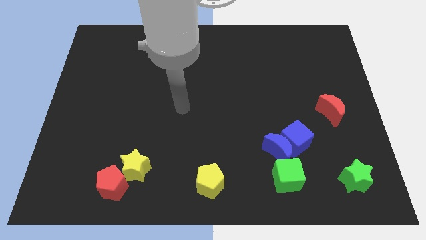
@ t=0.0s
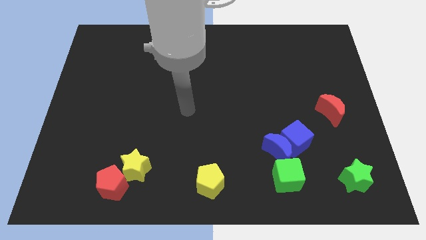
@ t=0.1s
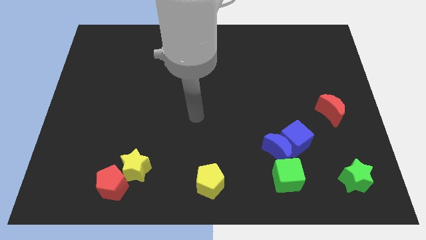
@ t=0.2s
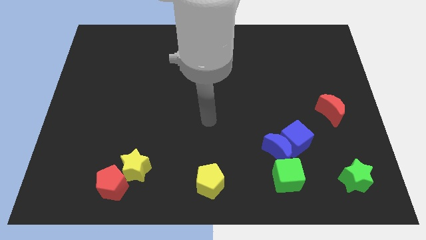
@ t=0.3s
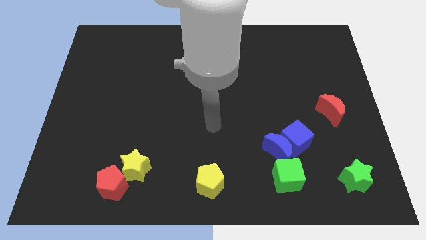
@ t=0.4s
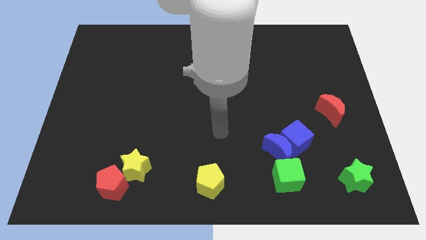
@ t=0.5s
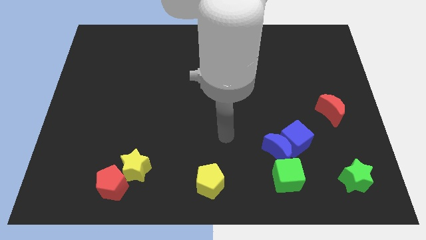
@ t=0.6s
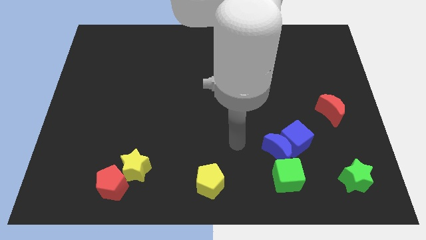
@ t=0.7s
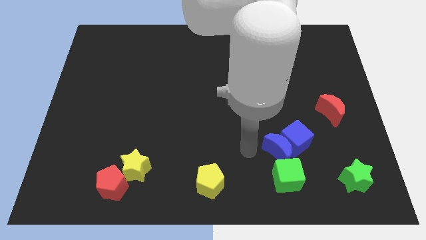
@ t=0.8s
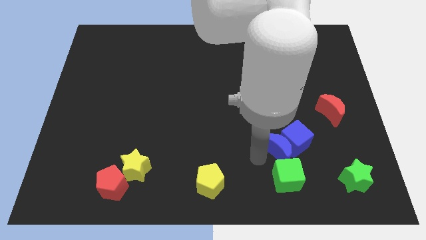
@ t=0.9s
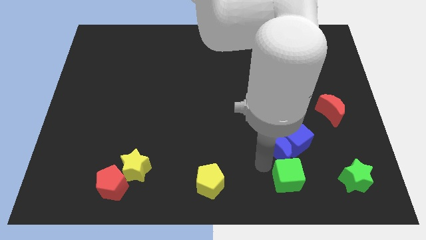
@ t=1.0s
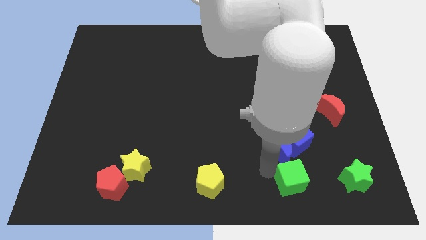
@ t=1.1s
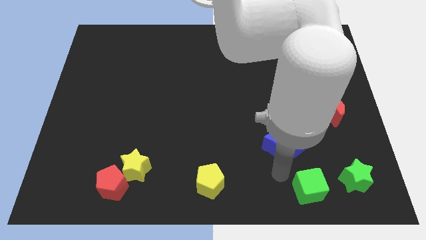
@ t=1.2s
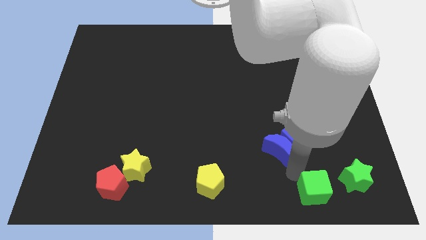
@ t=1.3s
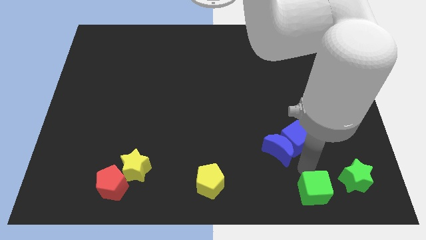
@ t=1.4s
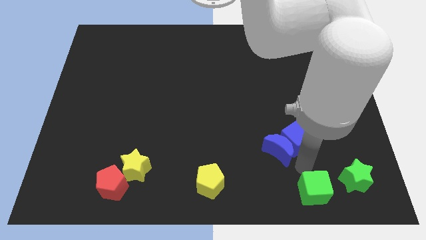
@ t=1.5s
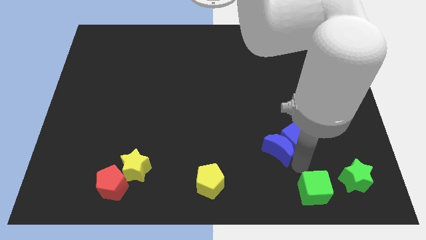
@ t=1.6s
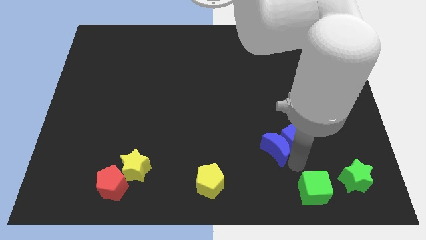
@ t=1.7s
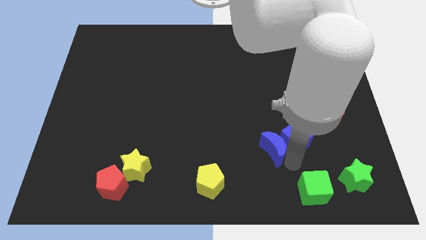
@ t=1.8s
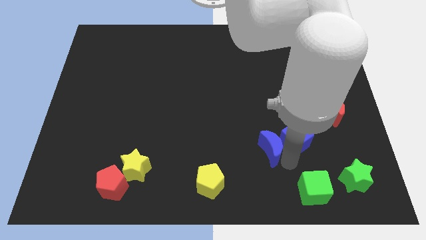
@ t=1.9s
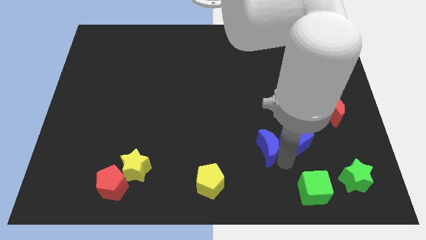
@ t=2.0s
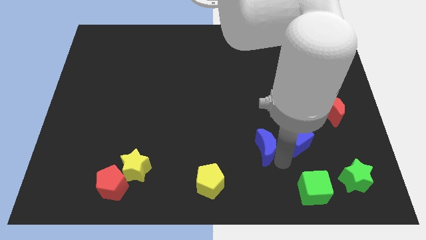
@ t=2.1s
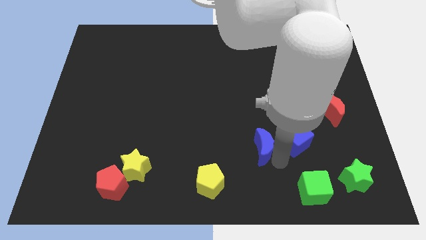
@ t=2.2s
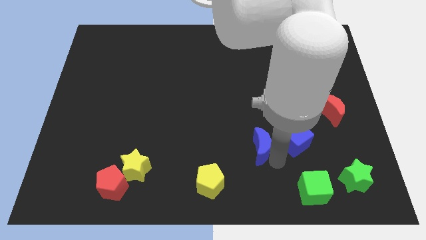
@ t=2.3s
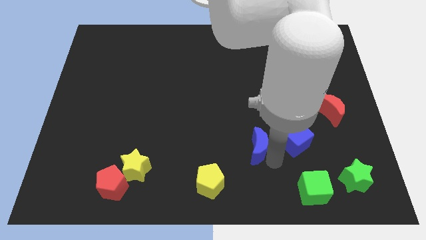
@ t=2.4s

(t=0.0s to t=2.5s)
pull the blue moon apart from the blue cube and green cube

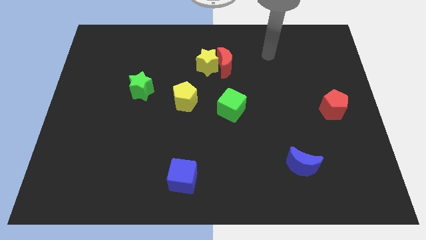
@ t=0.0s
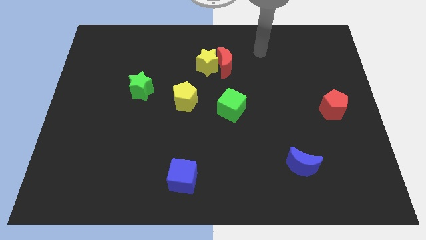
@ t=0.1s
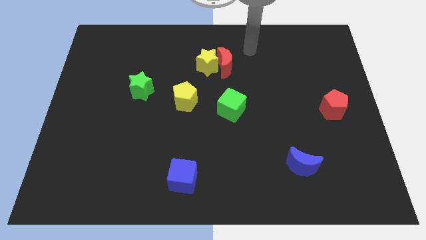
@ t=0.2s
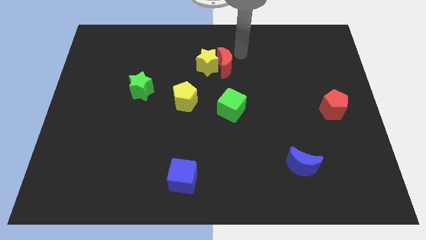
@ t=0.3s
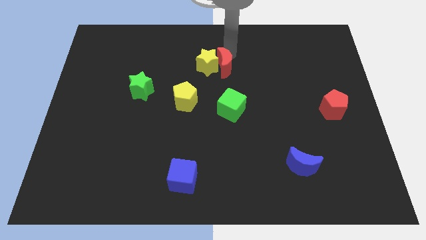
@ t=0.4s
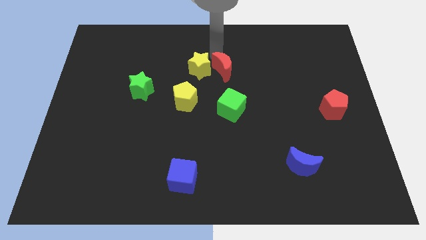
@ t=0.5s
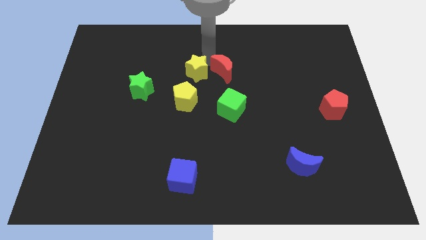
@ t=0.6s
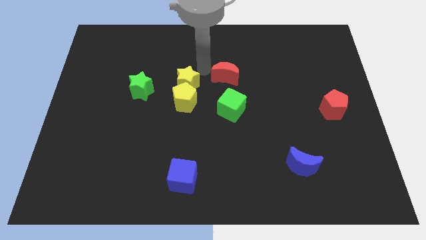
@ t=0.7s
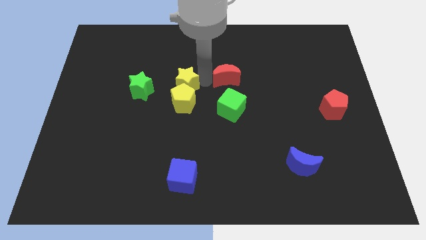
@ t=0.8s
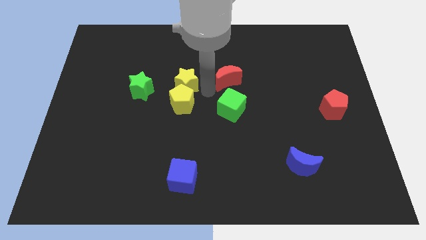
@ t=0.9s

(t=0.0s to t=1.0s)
separate the red moon from the yellow star

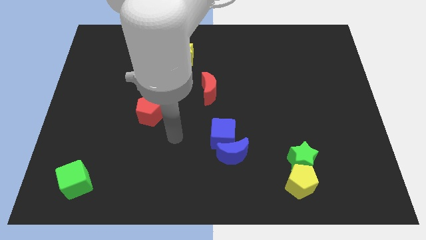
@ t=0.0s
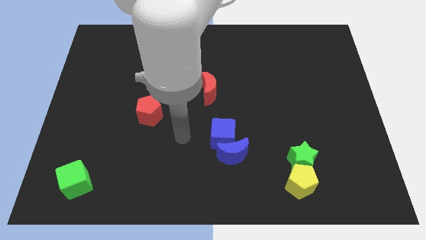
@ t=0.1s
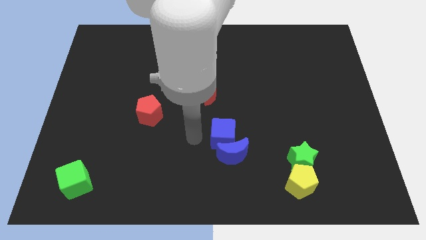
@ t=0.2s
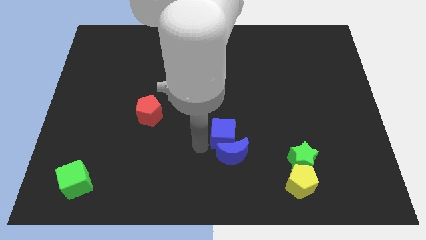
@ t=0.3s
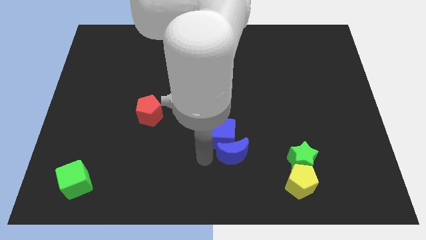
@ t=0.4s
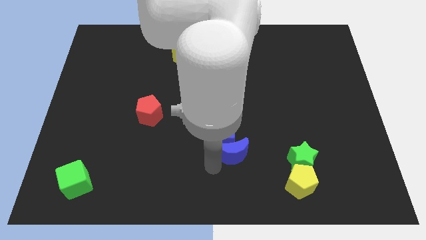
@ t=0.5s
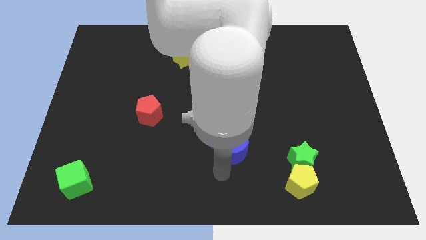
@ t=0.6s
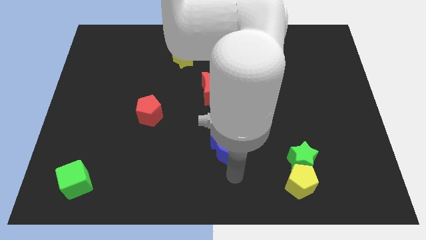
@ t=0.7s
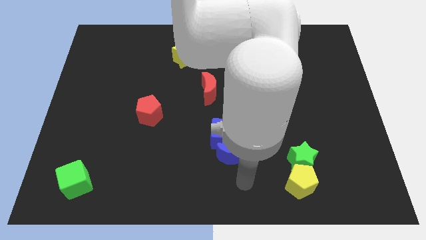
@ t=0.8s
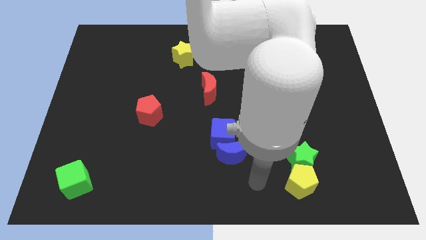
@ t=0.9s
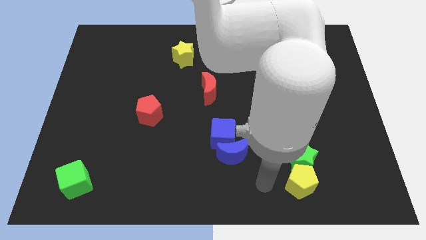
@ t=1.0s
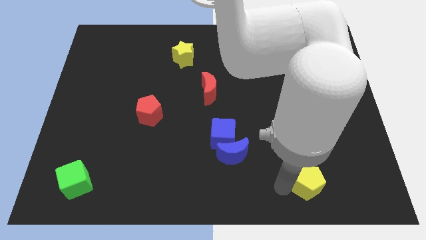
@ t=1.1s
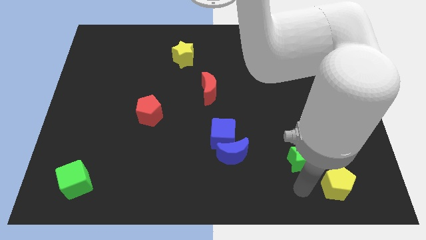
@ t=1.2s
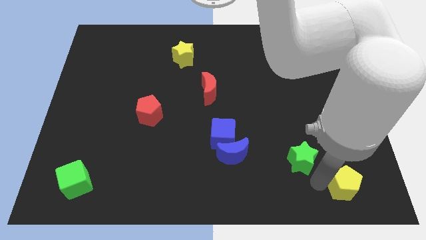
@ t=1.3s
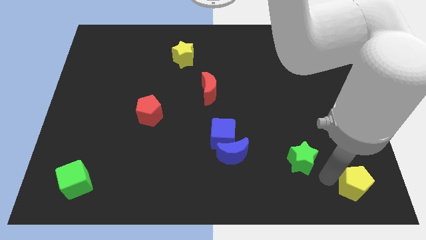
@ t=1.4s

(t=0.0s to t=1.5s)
separate the green star from the yellow pentagon

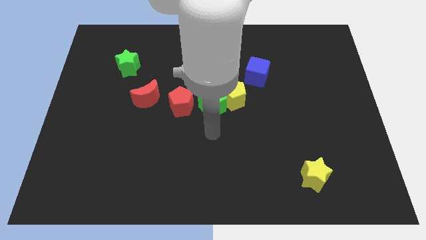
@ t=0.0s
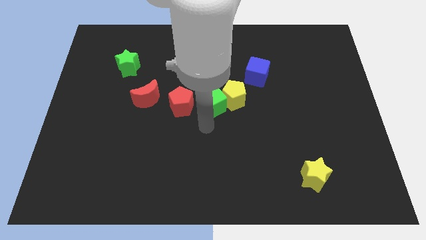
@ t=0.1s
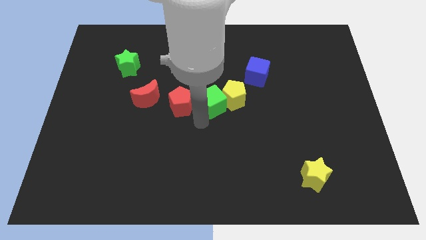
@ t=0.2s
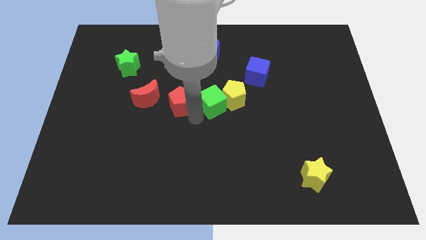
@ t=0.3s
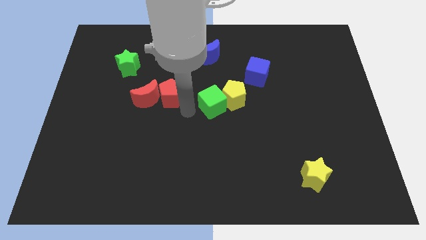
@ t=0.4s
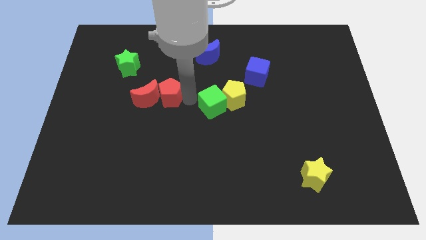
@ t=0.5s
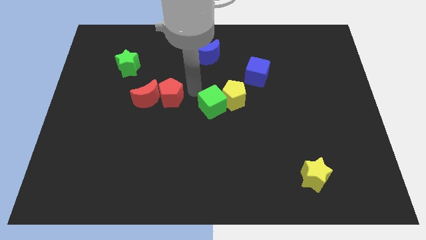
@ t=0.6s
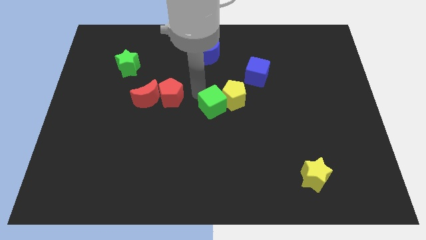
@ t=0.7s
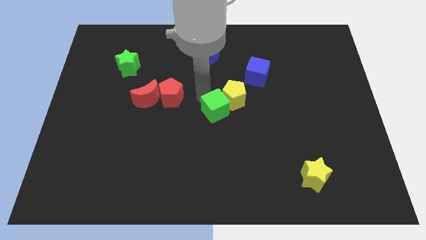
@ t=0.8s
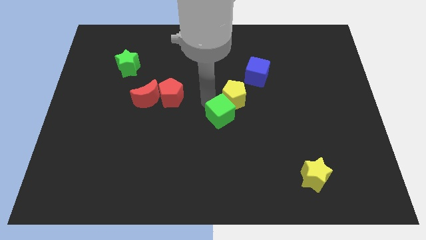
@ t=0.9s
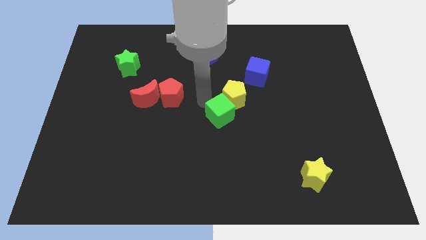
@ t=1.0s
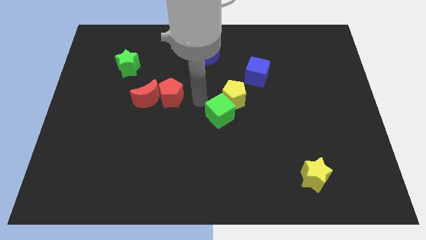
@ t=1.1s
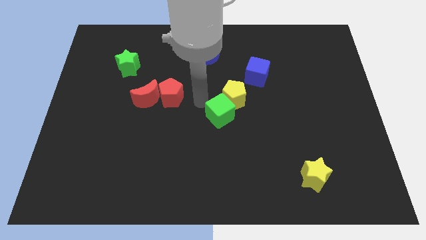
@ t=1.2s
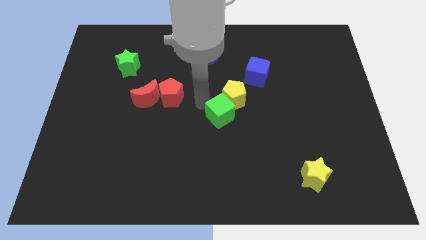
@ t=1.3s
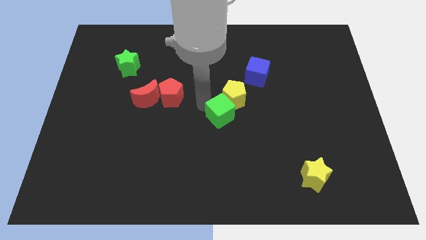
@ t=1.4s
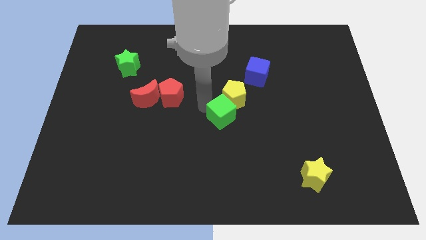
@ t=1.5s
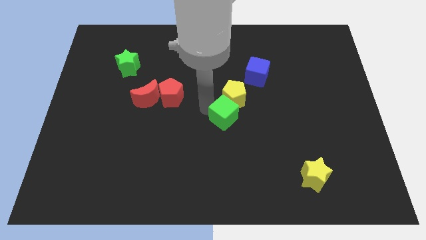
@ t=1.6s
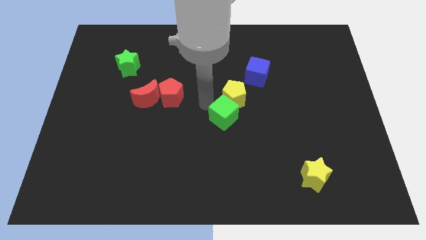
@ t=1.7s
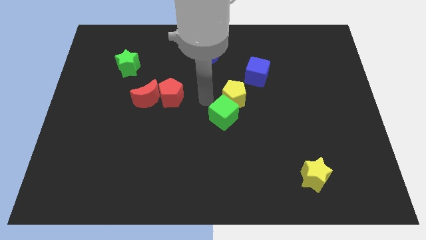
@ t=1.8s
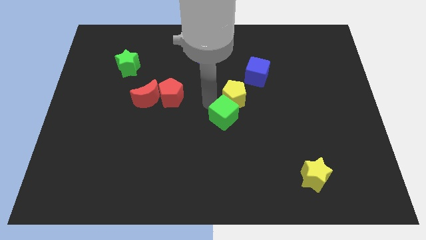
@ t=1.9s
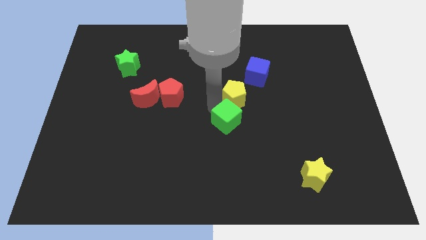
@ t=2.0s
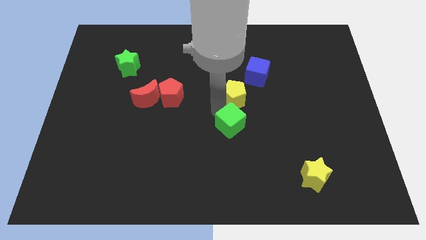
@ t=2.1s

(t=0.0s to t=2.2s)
separate the green cube from the yellow pentagon and red pentagon

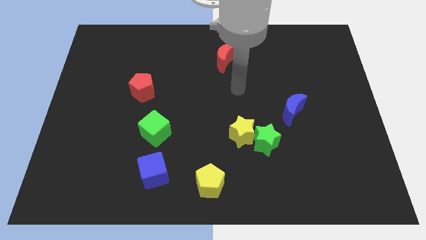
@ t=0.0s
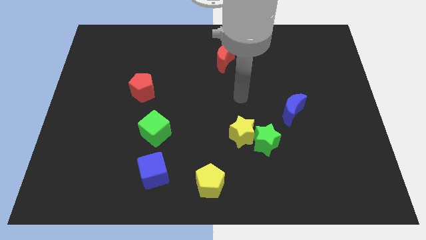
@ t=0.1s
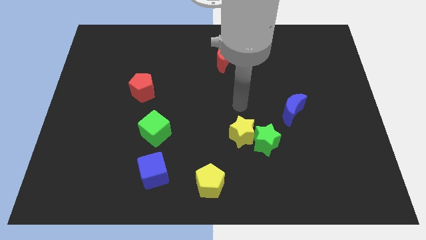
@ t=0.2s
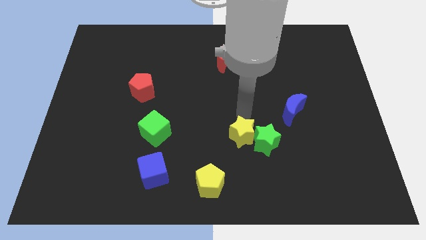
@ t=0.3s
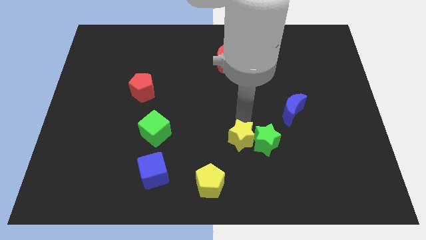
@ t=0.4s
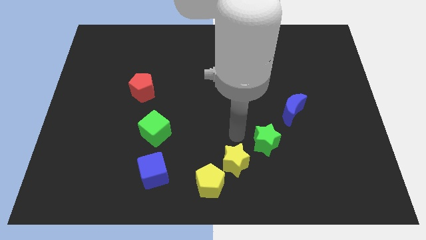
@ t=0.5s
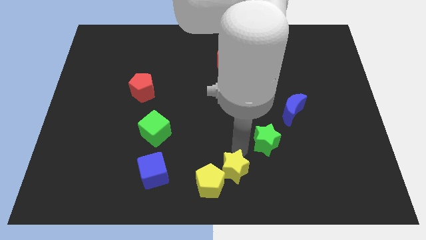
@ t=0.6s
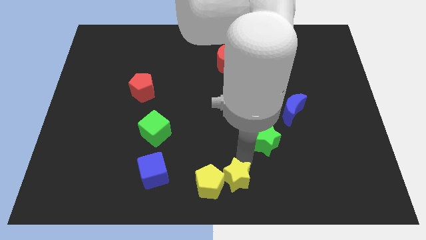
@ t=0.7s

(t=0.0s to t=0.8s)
move the green star away from the yellow star

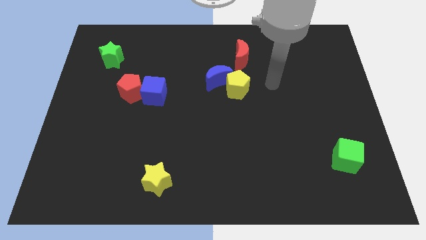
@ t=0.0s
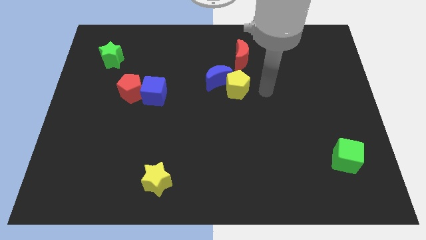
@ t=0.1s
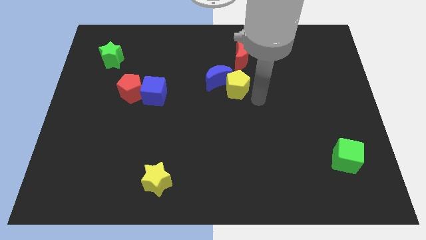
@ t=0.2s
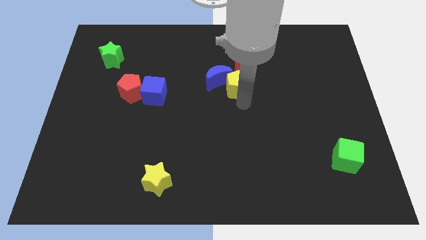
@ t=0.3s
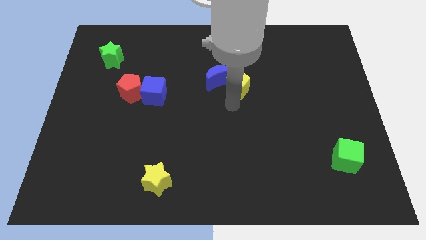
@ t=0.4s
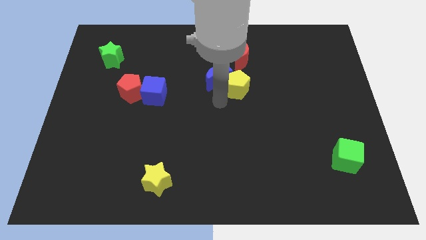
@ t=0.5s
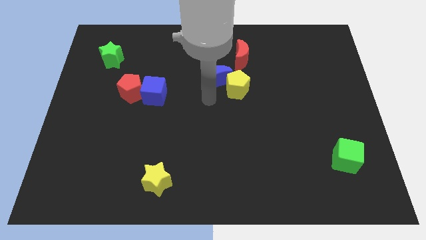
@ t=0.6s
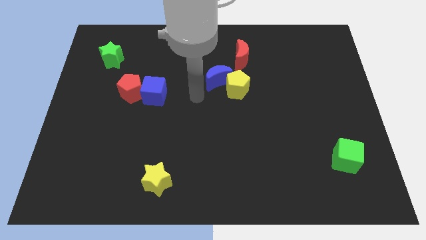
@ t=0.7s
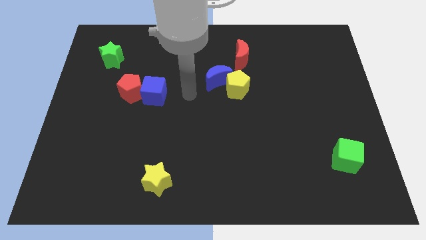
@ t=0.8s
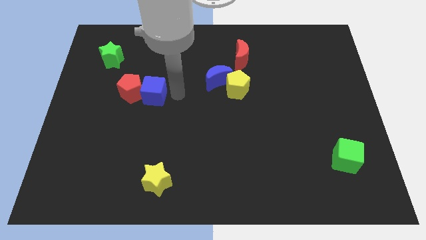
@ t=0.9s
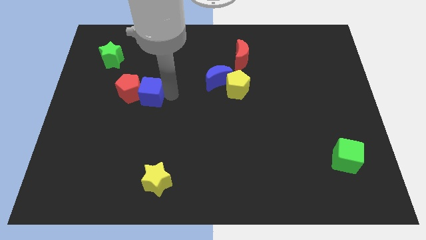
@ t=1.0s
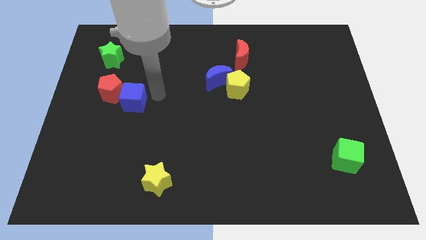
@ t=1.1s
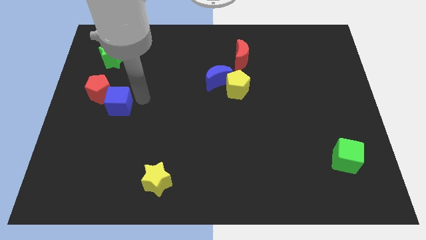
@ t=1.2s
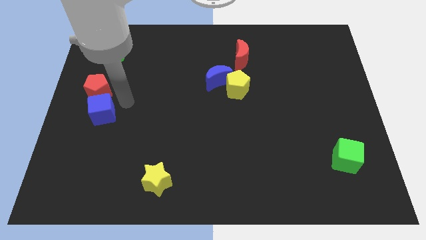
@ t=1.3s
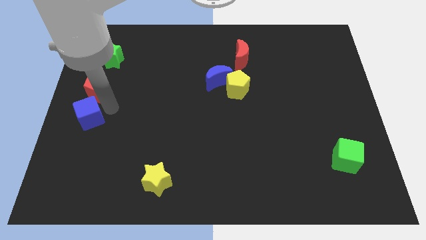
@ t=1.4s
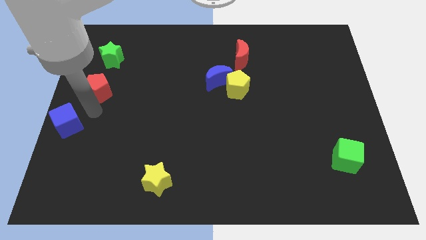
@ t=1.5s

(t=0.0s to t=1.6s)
separate the red pentagon from the blue cube
